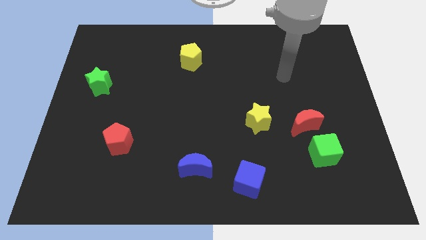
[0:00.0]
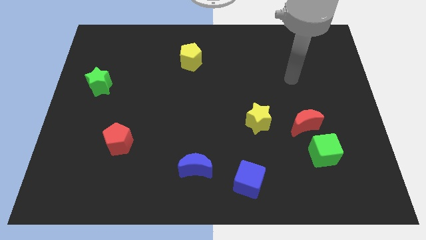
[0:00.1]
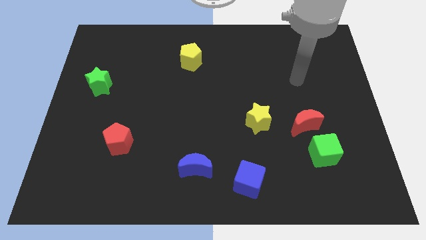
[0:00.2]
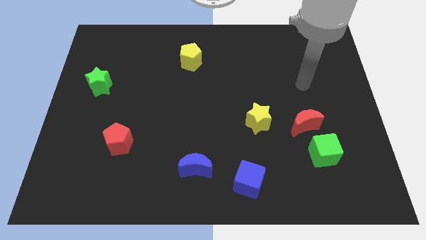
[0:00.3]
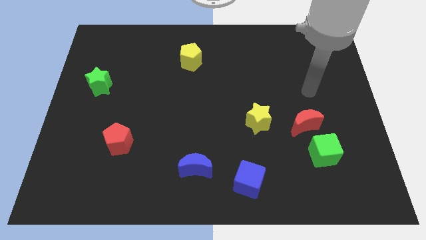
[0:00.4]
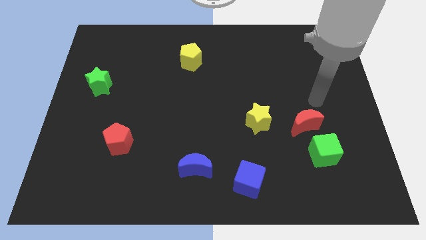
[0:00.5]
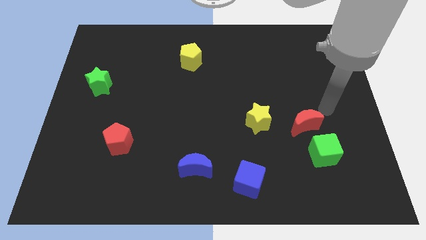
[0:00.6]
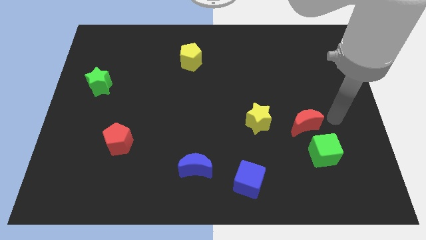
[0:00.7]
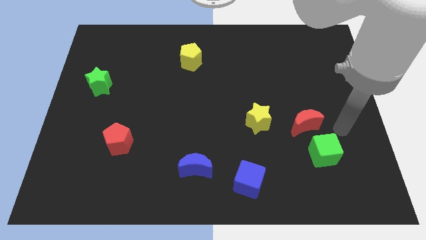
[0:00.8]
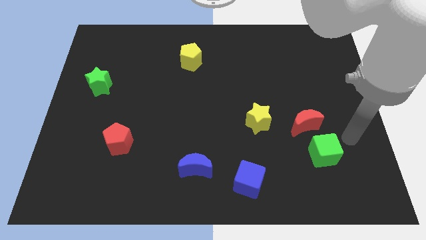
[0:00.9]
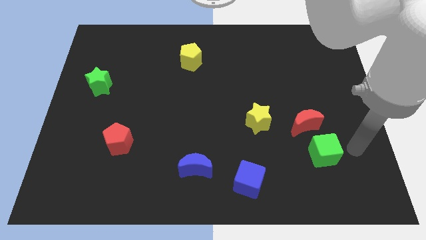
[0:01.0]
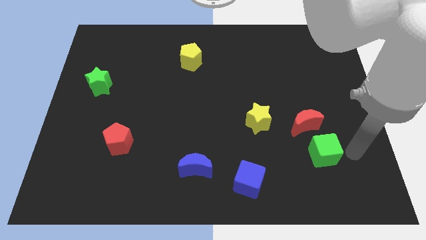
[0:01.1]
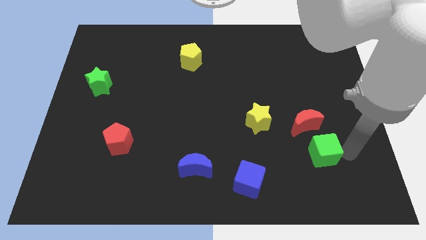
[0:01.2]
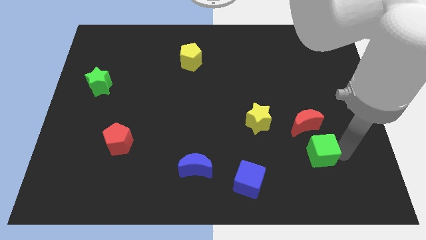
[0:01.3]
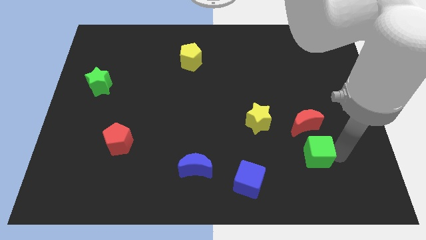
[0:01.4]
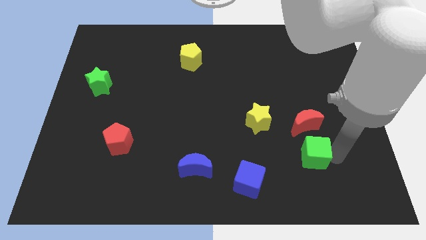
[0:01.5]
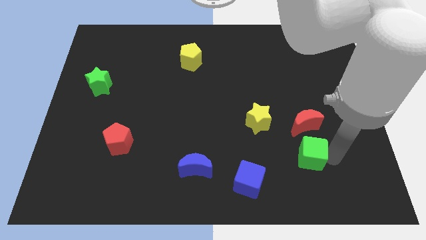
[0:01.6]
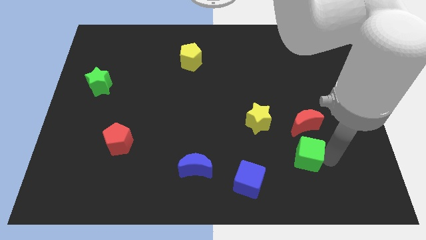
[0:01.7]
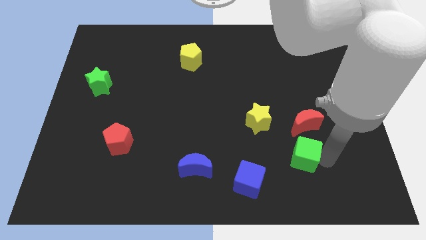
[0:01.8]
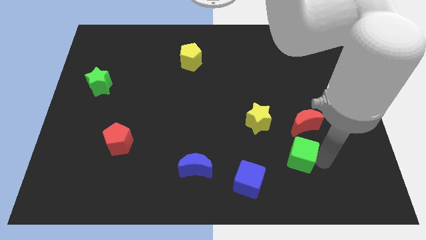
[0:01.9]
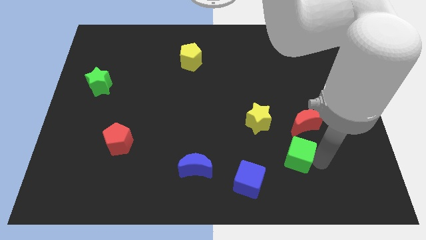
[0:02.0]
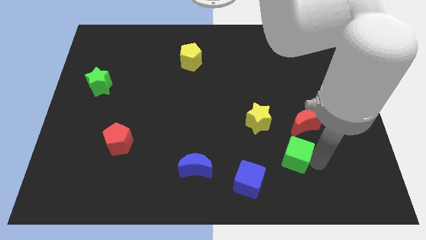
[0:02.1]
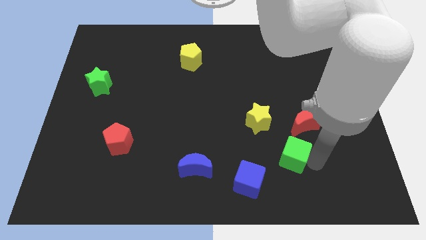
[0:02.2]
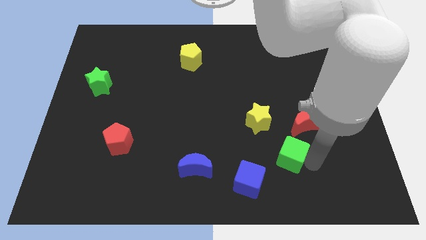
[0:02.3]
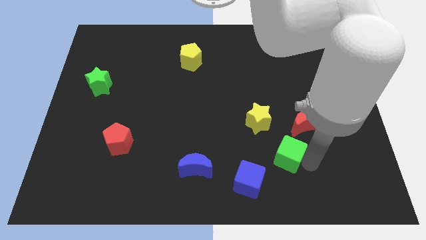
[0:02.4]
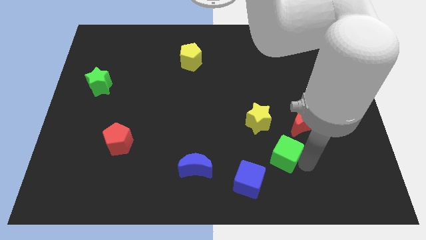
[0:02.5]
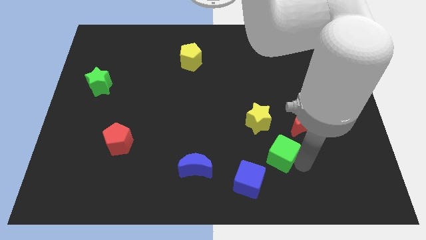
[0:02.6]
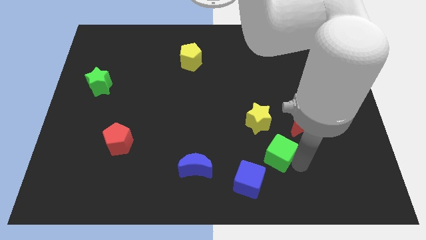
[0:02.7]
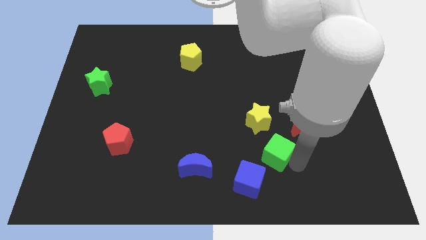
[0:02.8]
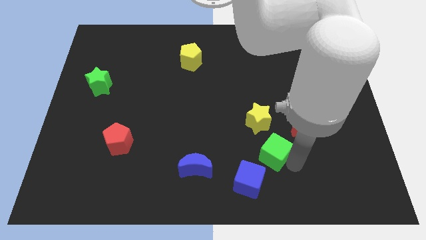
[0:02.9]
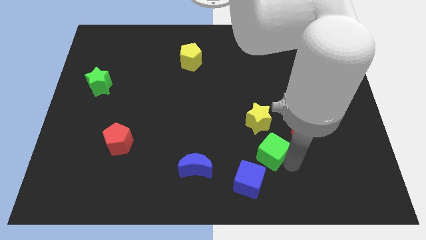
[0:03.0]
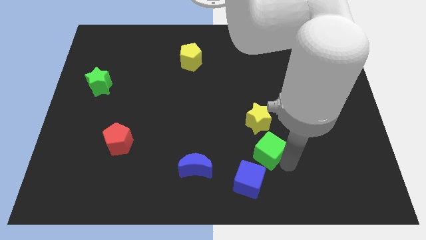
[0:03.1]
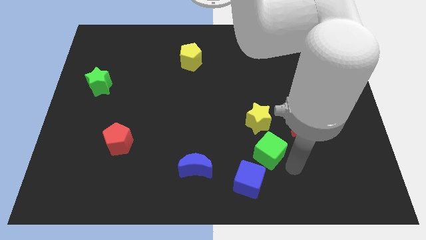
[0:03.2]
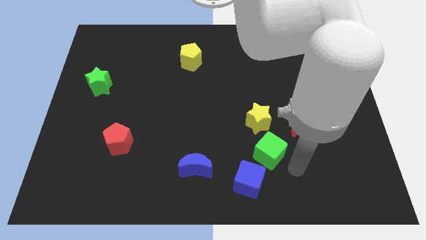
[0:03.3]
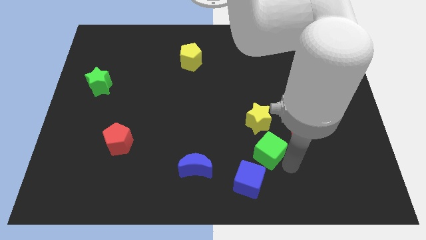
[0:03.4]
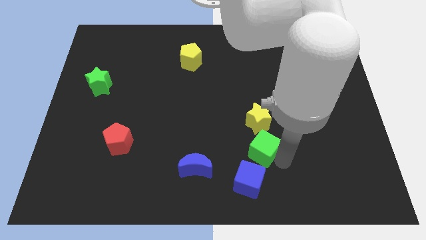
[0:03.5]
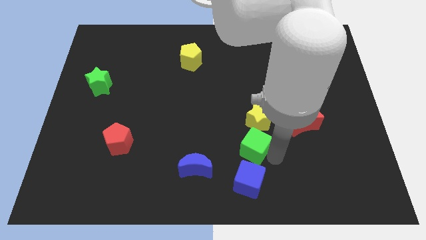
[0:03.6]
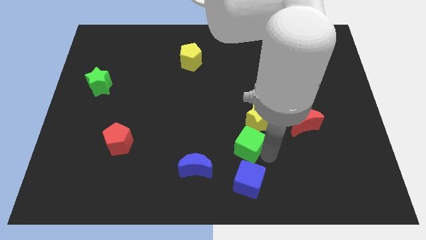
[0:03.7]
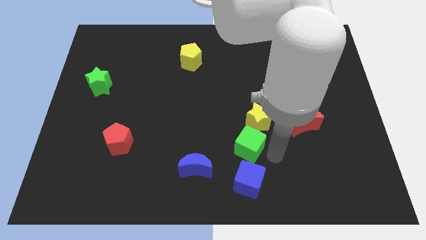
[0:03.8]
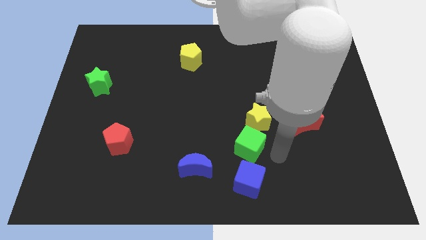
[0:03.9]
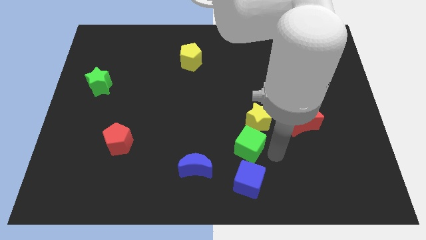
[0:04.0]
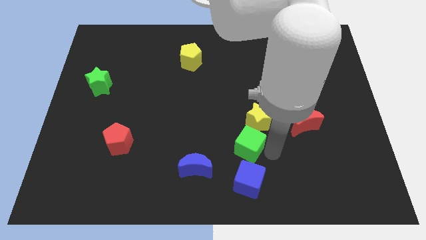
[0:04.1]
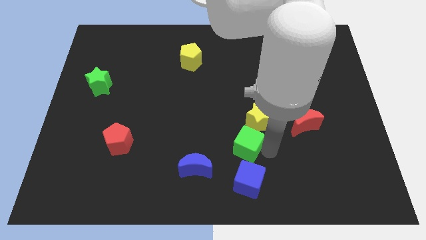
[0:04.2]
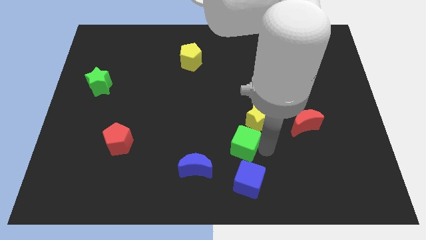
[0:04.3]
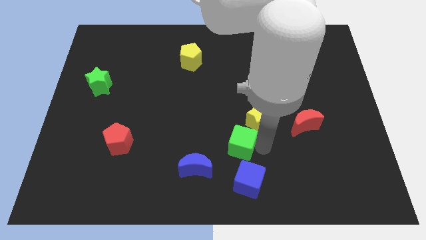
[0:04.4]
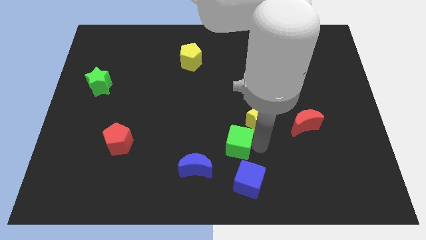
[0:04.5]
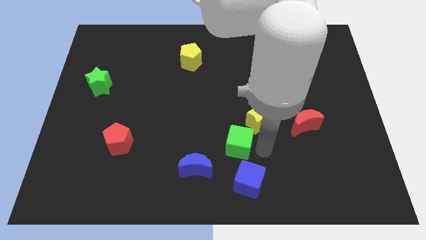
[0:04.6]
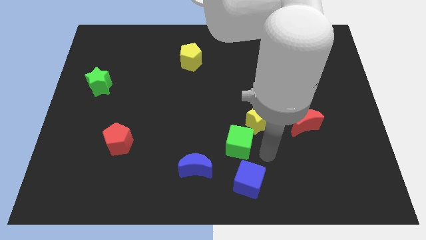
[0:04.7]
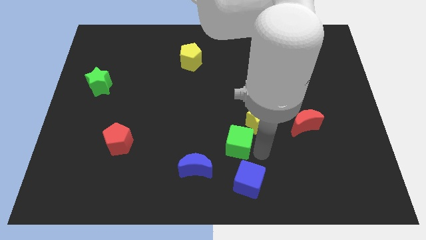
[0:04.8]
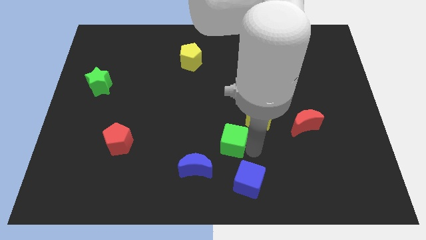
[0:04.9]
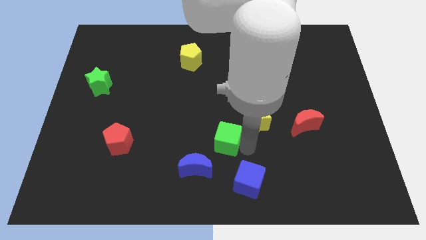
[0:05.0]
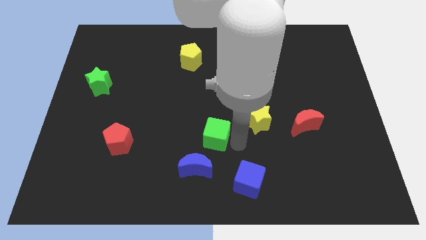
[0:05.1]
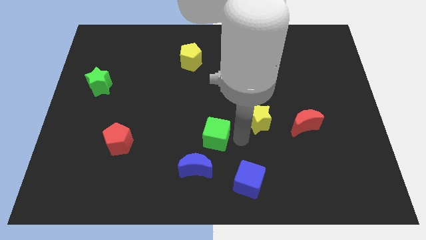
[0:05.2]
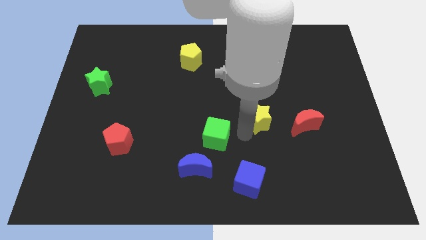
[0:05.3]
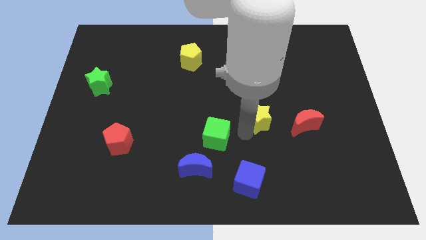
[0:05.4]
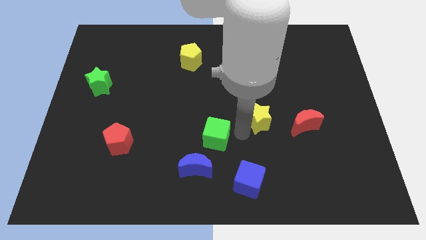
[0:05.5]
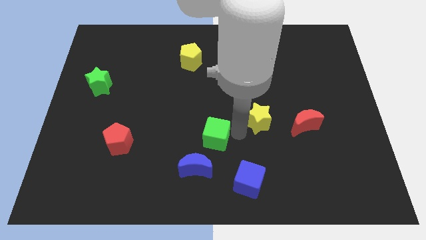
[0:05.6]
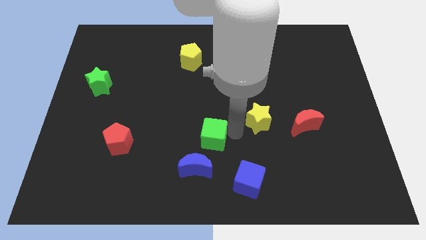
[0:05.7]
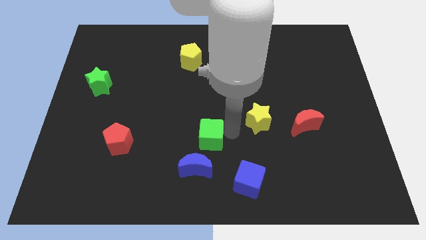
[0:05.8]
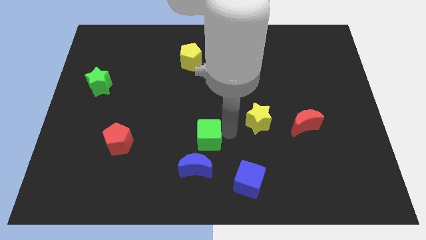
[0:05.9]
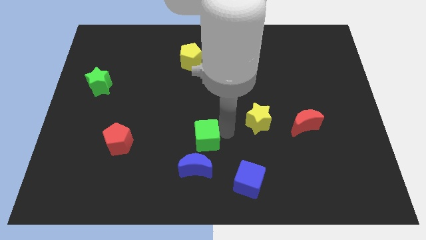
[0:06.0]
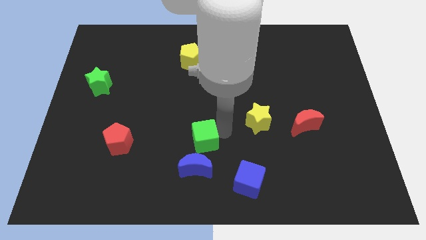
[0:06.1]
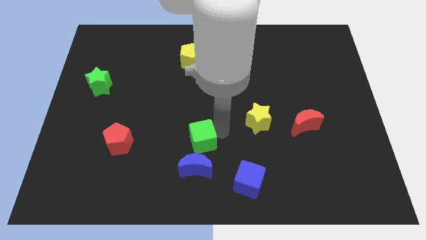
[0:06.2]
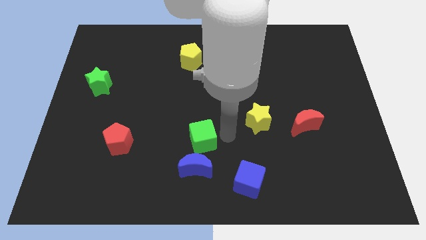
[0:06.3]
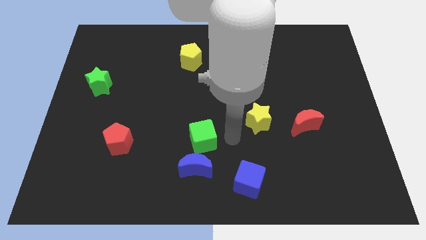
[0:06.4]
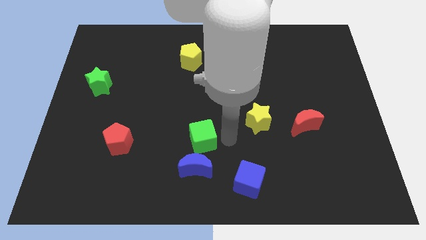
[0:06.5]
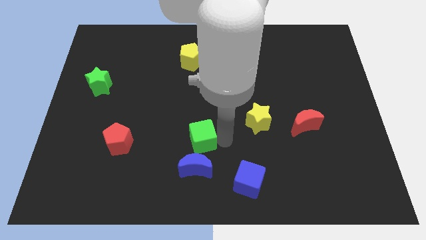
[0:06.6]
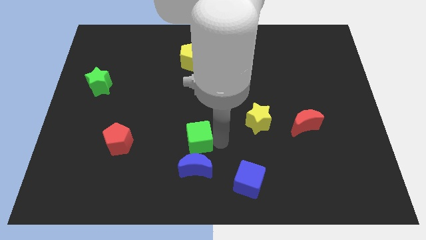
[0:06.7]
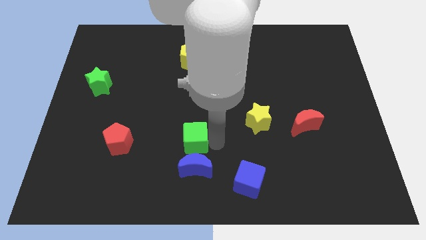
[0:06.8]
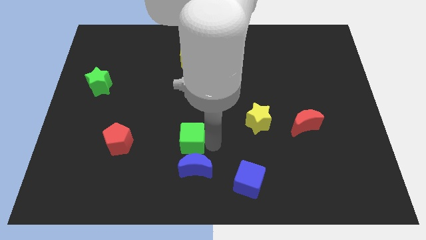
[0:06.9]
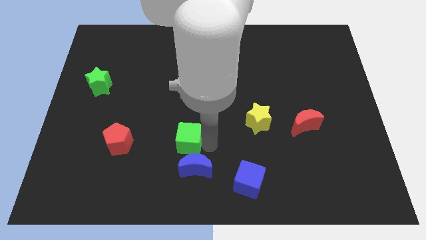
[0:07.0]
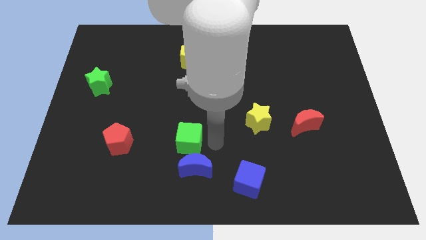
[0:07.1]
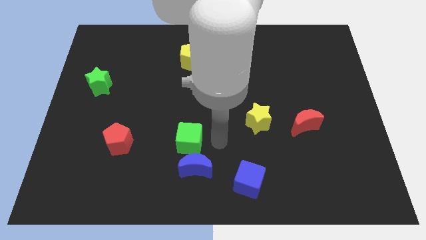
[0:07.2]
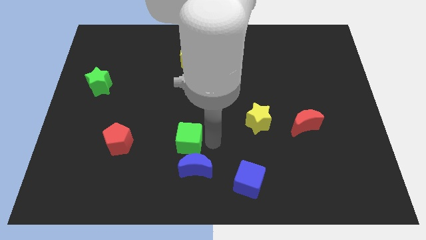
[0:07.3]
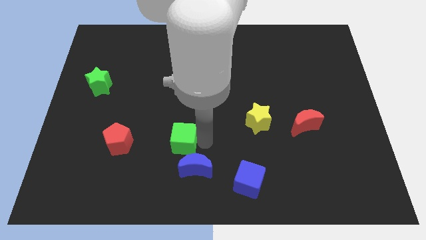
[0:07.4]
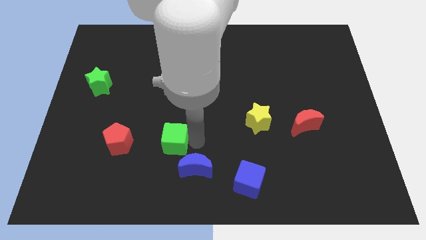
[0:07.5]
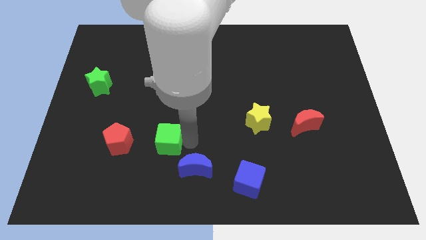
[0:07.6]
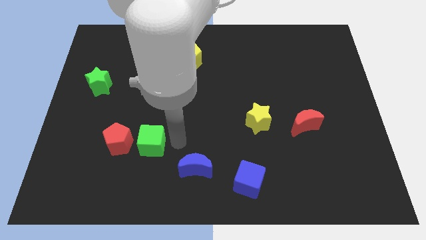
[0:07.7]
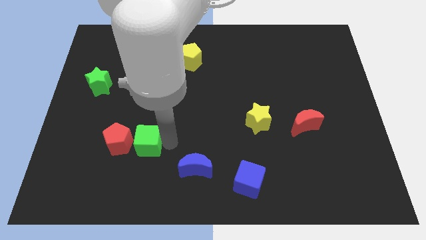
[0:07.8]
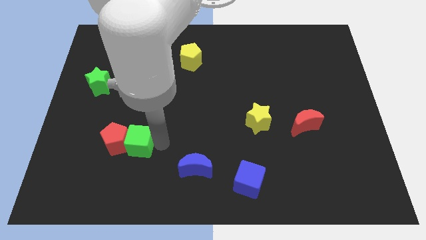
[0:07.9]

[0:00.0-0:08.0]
push the green cube to the red pentagon

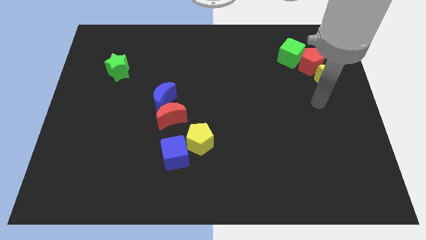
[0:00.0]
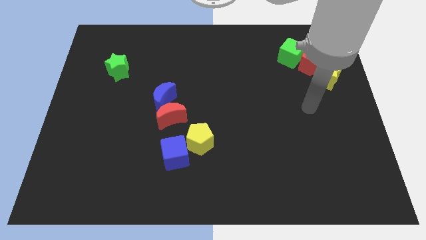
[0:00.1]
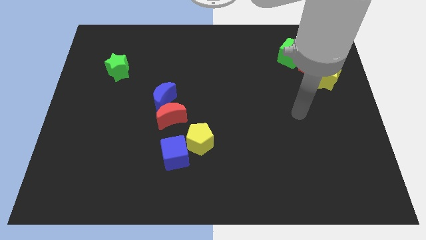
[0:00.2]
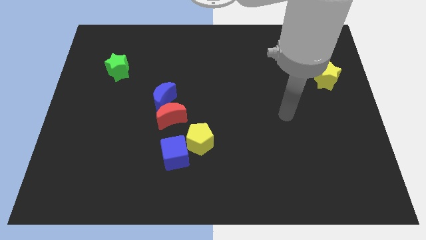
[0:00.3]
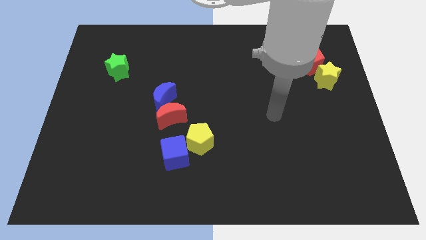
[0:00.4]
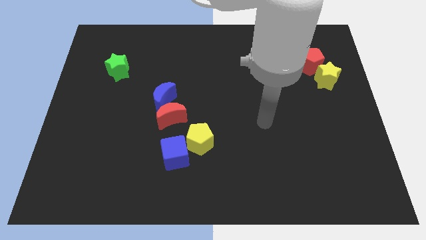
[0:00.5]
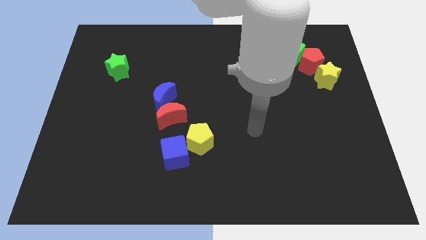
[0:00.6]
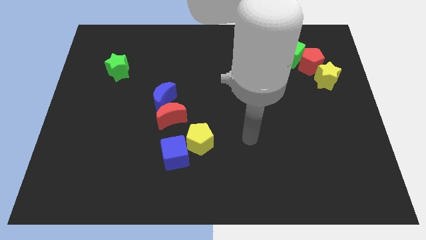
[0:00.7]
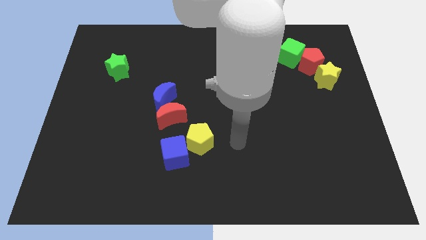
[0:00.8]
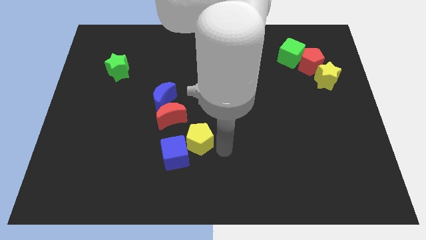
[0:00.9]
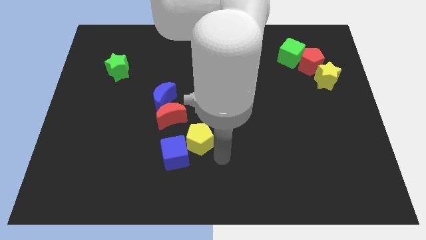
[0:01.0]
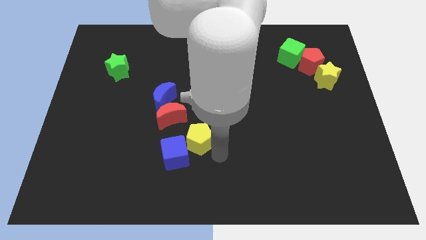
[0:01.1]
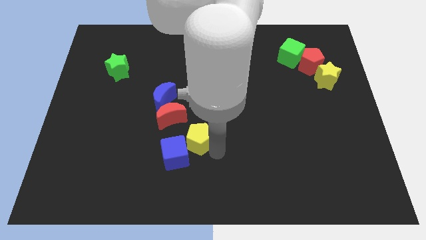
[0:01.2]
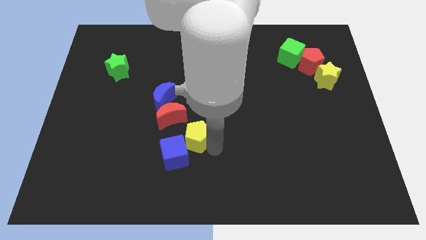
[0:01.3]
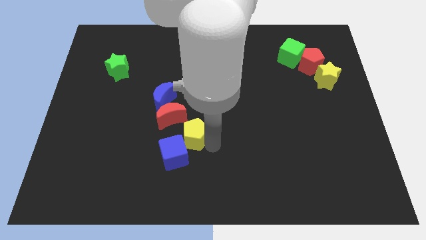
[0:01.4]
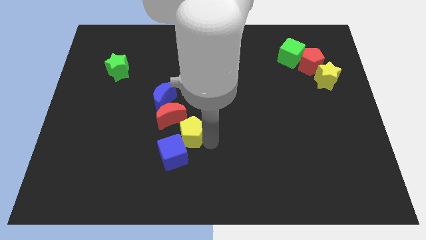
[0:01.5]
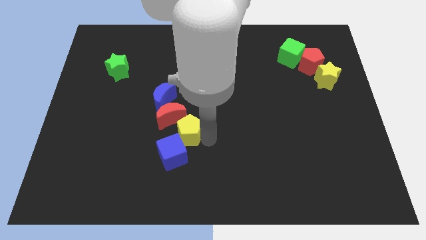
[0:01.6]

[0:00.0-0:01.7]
push the yellow pentagon close to the red moon
